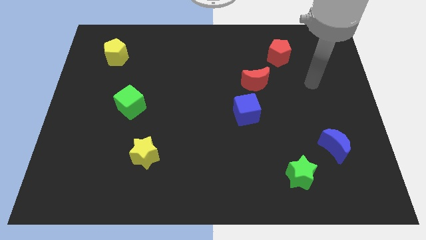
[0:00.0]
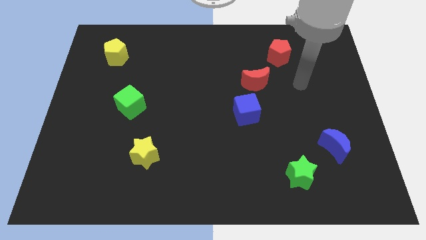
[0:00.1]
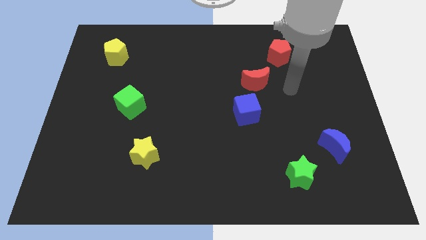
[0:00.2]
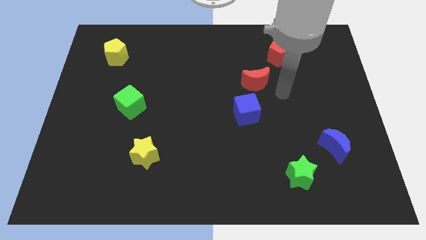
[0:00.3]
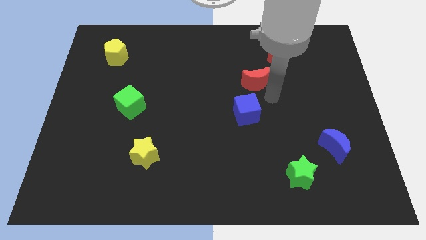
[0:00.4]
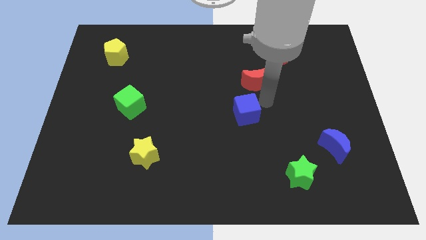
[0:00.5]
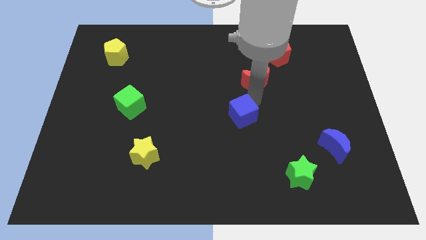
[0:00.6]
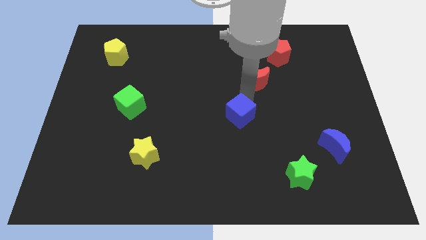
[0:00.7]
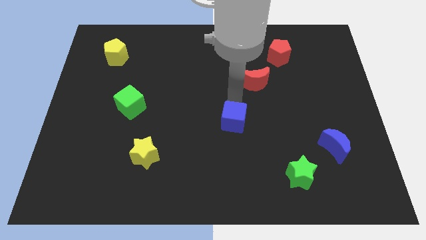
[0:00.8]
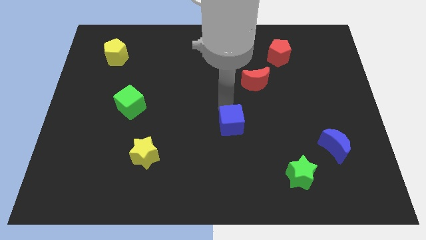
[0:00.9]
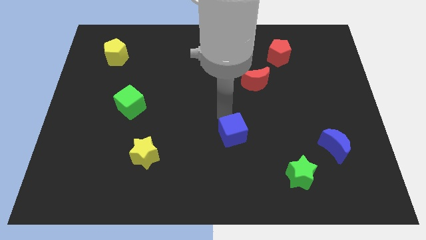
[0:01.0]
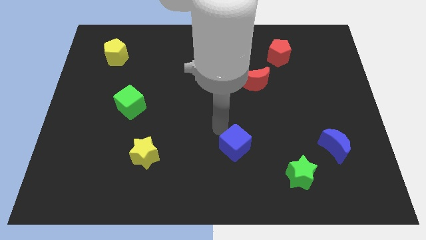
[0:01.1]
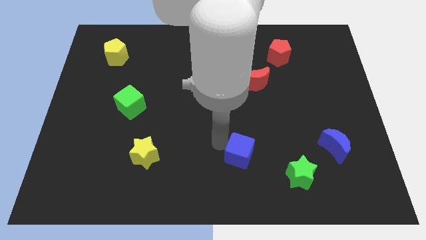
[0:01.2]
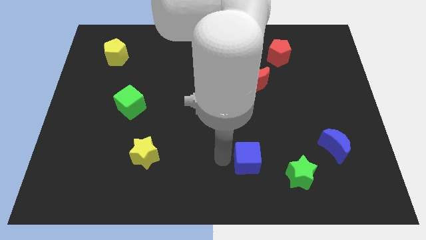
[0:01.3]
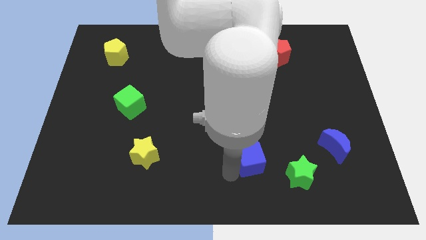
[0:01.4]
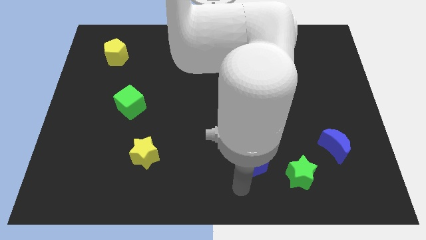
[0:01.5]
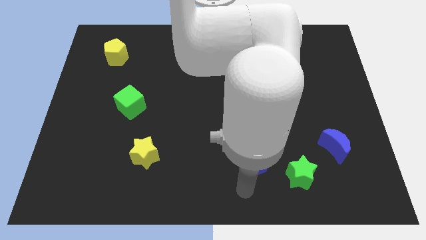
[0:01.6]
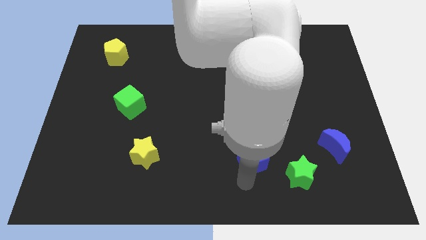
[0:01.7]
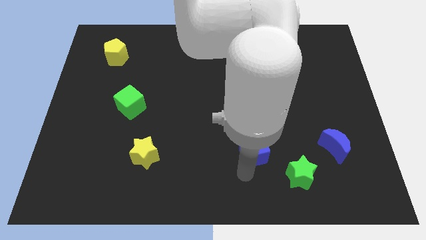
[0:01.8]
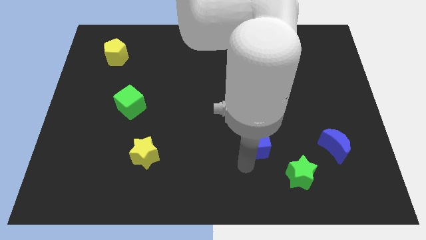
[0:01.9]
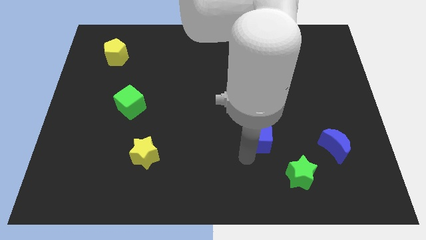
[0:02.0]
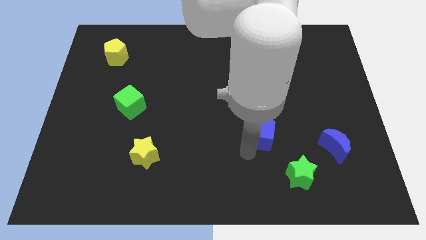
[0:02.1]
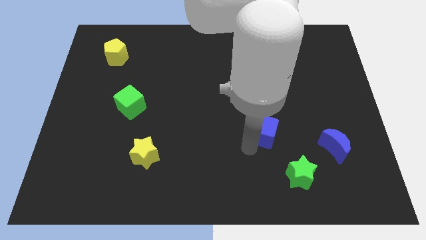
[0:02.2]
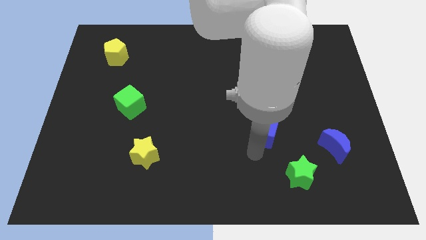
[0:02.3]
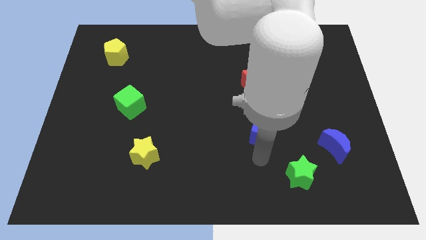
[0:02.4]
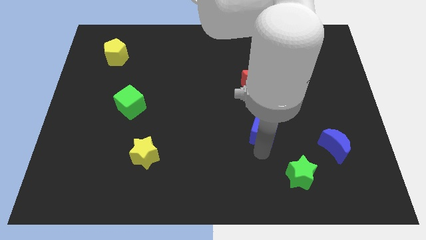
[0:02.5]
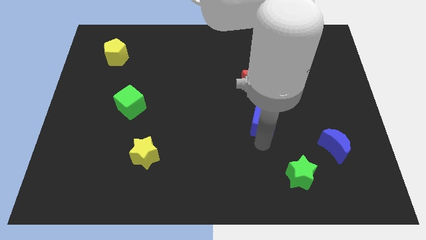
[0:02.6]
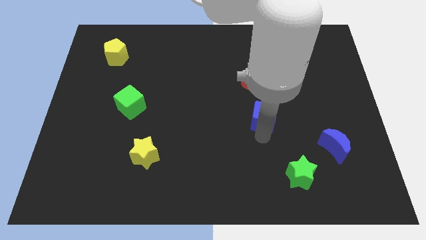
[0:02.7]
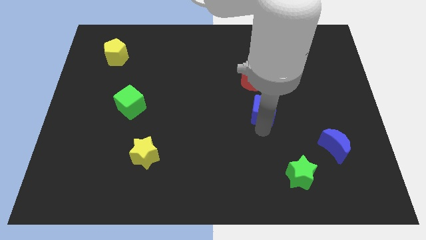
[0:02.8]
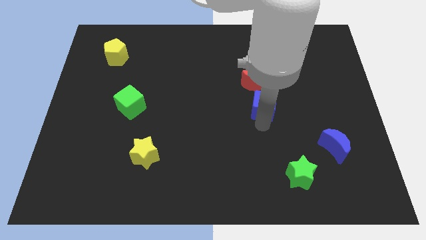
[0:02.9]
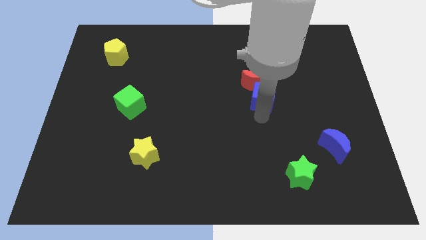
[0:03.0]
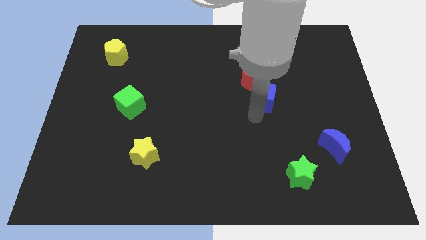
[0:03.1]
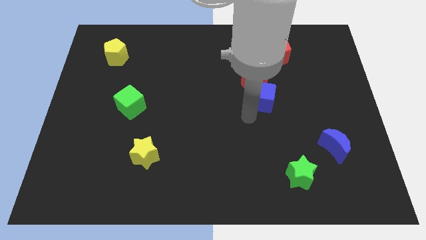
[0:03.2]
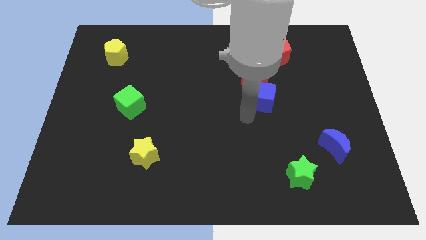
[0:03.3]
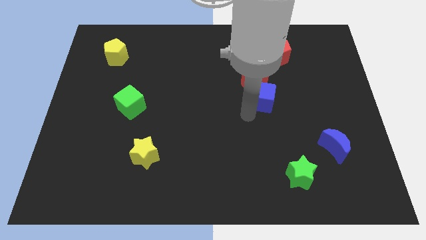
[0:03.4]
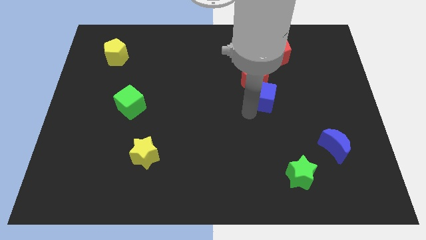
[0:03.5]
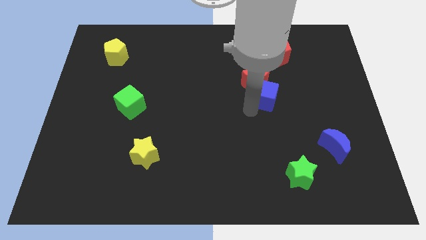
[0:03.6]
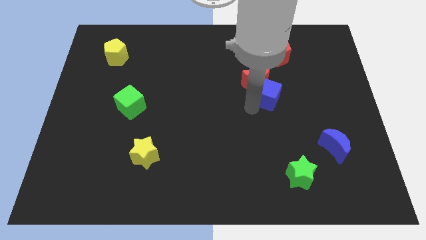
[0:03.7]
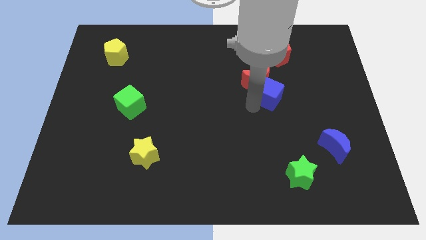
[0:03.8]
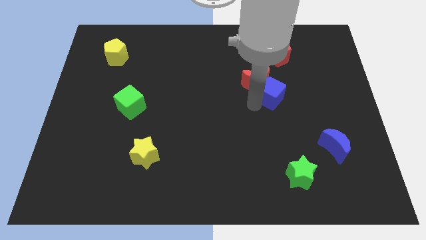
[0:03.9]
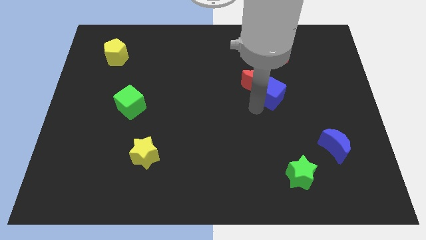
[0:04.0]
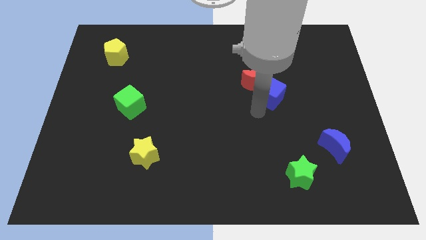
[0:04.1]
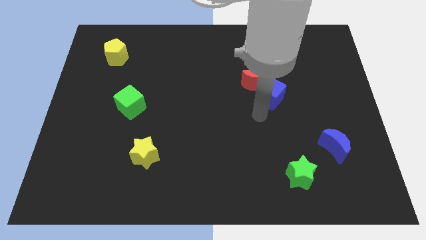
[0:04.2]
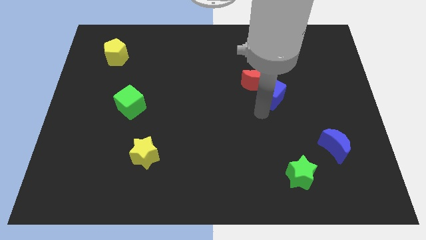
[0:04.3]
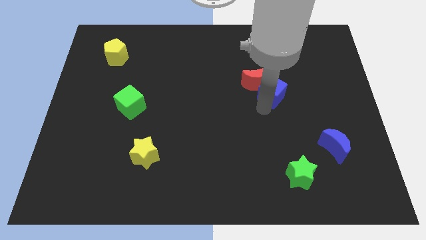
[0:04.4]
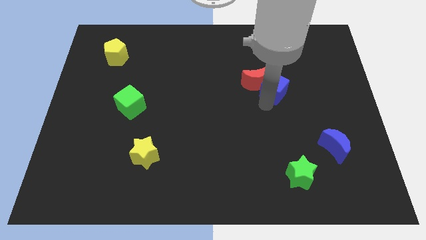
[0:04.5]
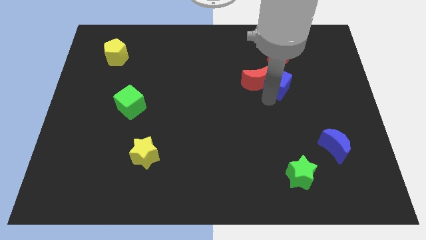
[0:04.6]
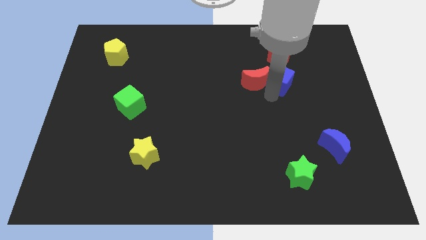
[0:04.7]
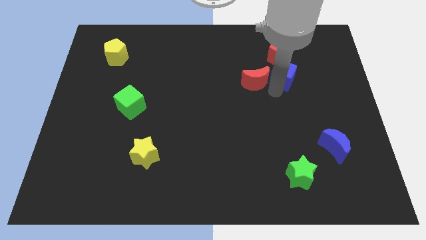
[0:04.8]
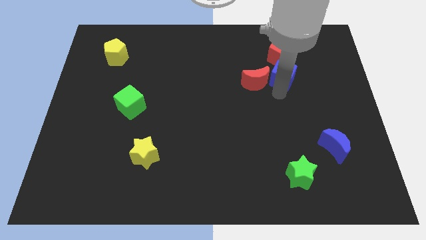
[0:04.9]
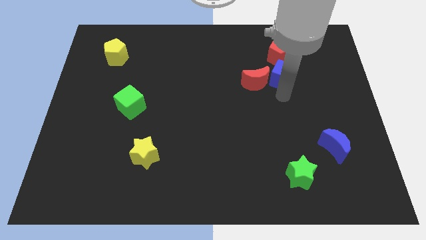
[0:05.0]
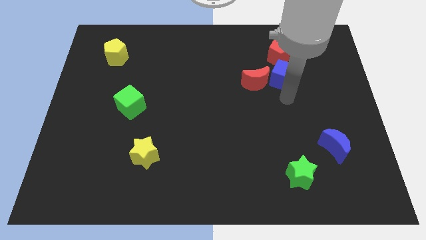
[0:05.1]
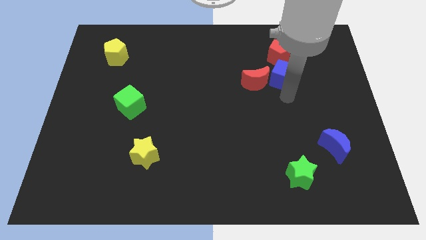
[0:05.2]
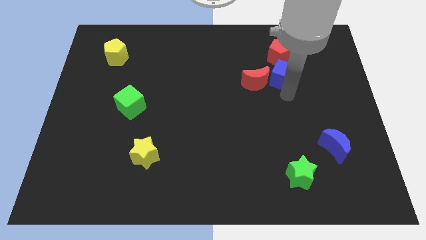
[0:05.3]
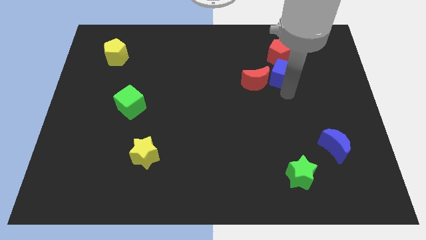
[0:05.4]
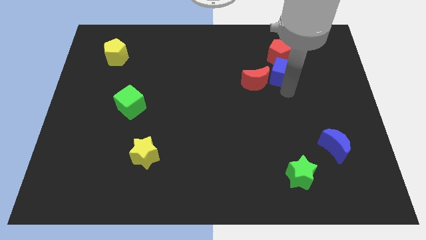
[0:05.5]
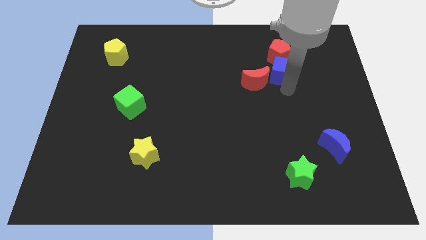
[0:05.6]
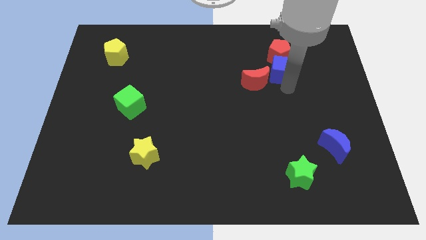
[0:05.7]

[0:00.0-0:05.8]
slide the blue cube towards the red pentagon

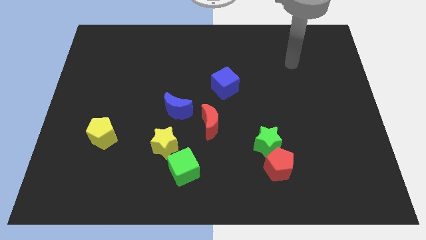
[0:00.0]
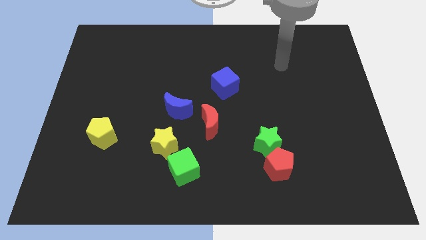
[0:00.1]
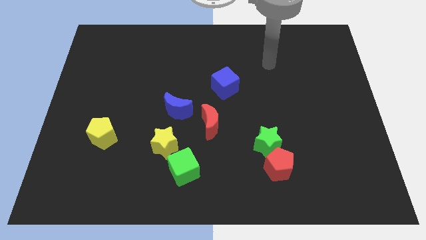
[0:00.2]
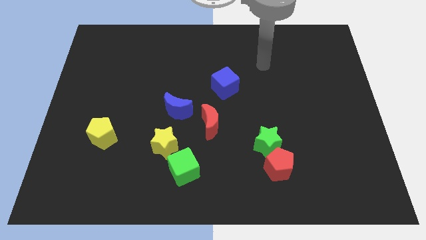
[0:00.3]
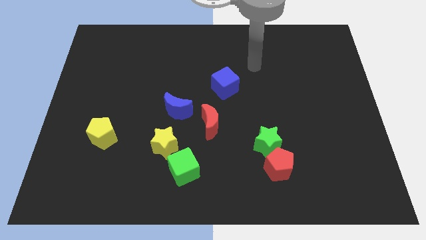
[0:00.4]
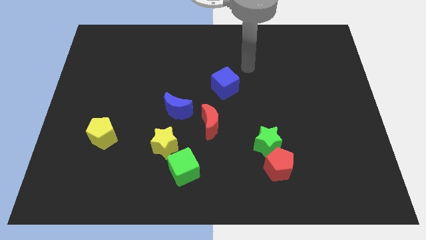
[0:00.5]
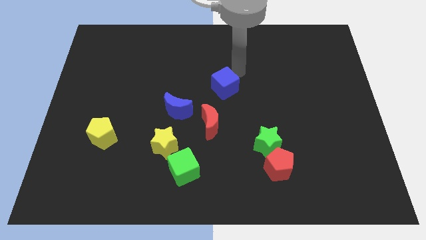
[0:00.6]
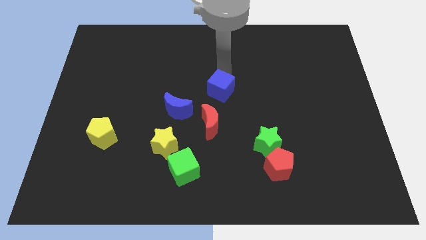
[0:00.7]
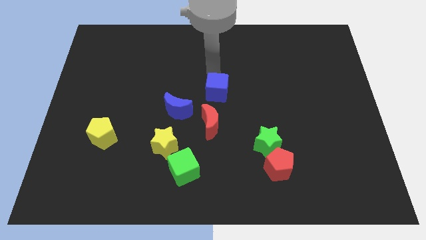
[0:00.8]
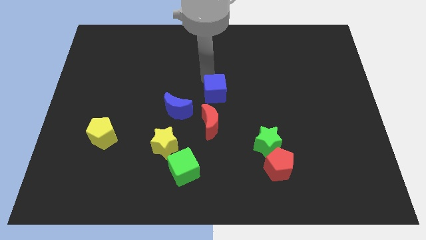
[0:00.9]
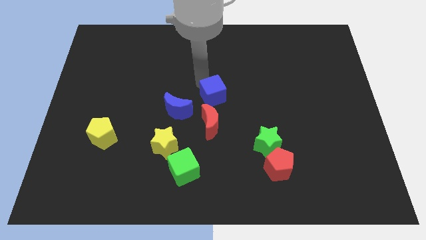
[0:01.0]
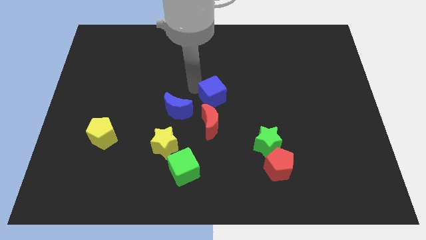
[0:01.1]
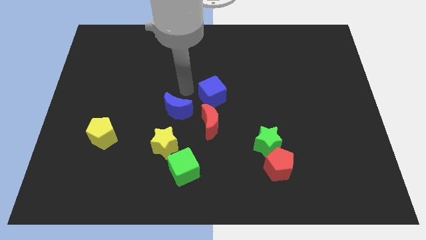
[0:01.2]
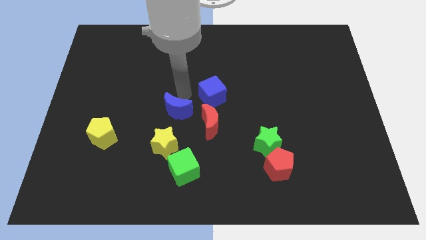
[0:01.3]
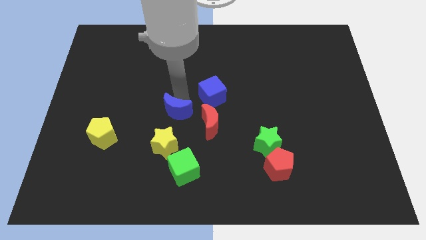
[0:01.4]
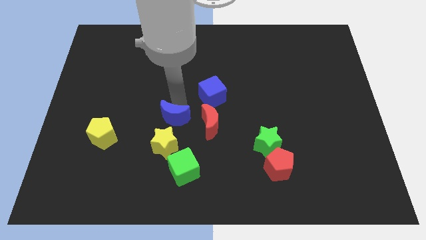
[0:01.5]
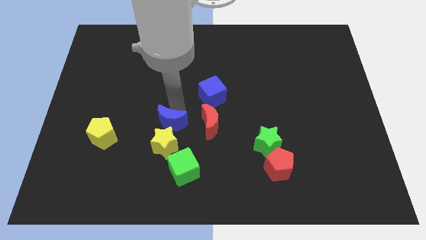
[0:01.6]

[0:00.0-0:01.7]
put the blue moon towards the yellow star
